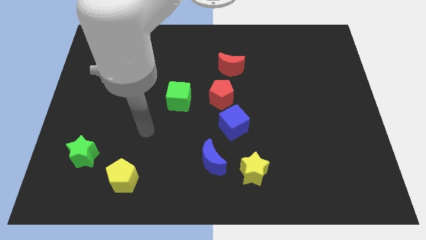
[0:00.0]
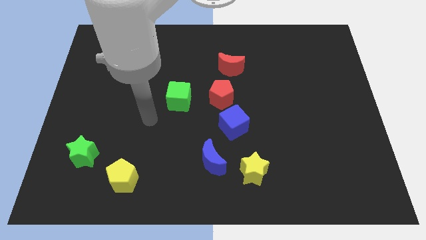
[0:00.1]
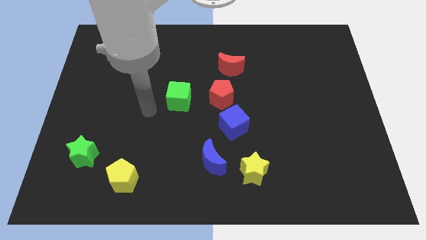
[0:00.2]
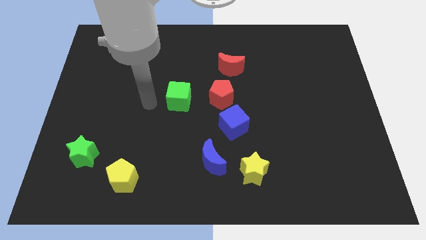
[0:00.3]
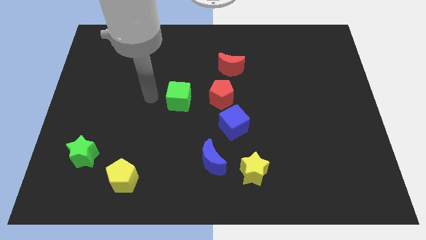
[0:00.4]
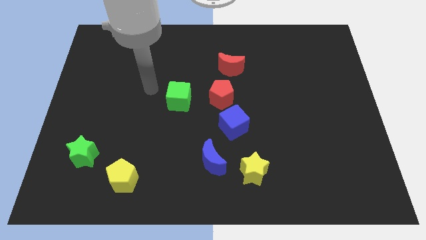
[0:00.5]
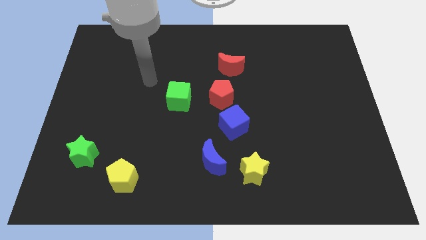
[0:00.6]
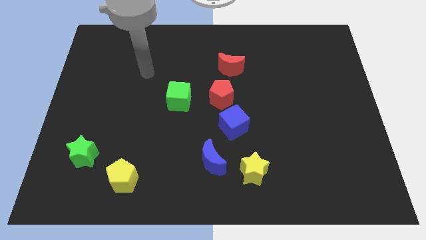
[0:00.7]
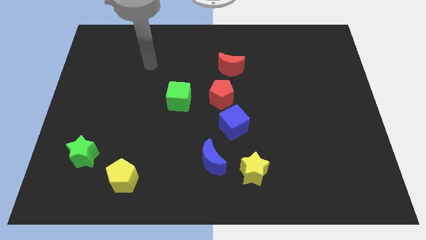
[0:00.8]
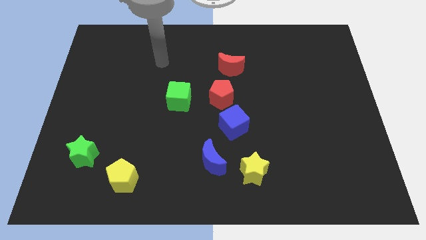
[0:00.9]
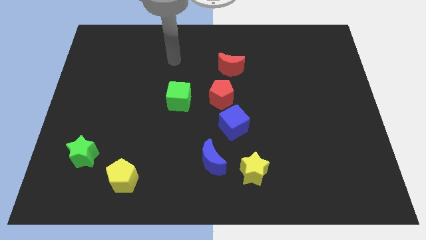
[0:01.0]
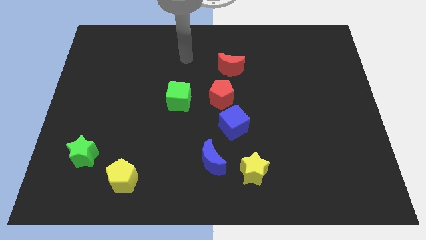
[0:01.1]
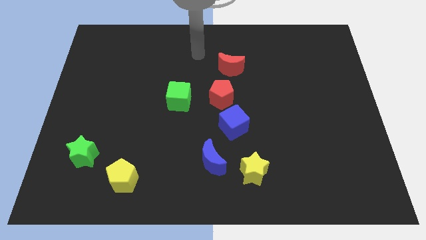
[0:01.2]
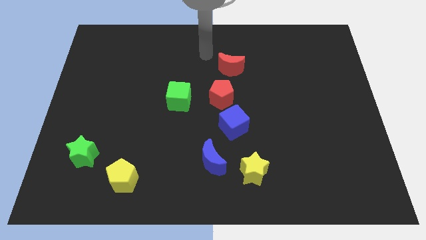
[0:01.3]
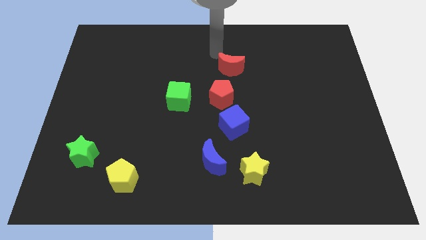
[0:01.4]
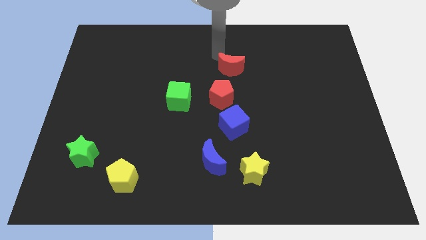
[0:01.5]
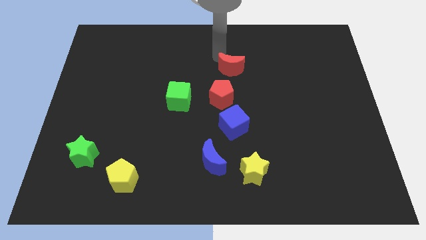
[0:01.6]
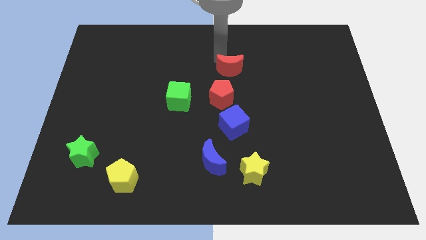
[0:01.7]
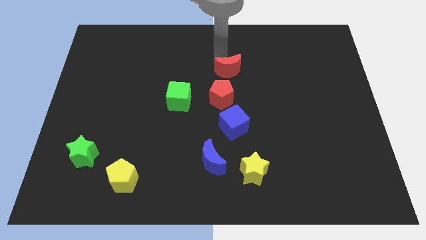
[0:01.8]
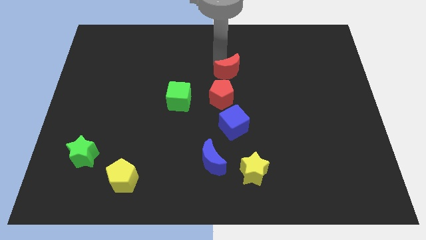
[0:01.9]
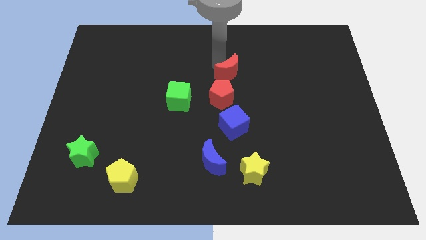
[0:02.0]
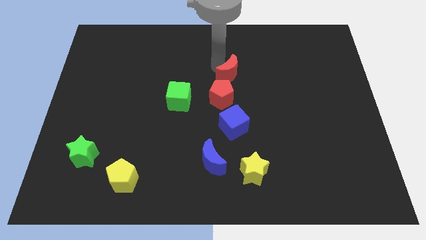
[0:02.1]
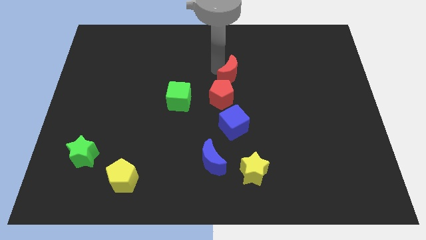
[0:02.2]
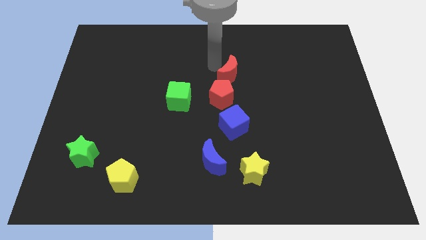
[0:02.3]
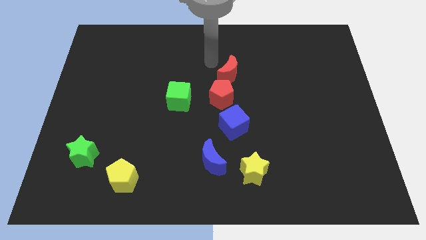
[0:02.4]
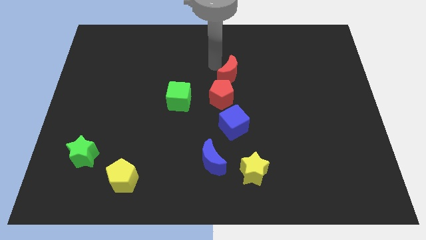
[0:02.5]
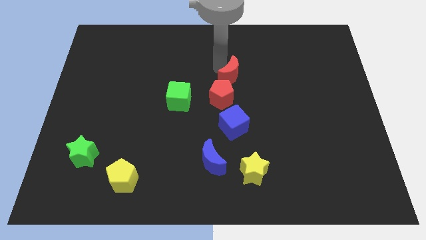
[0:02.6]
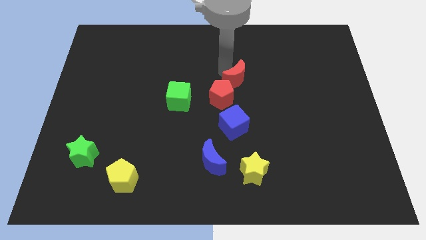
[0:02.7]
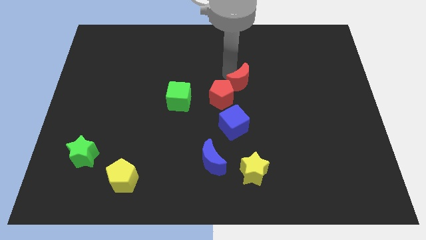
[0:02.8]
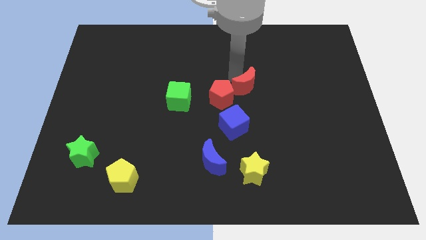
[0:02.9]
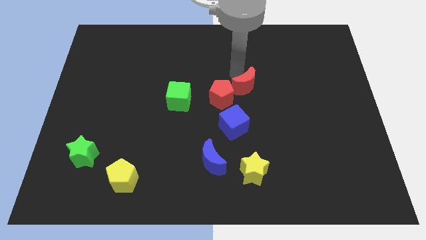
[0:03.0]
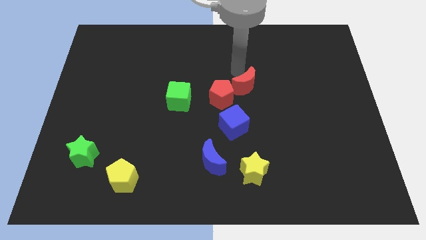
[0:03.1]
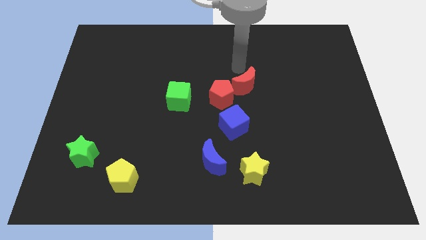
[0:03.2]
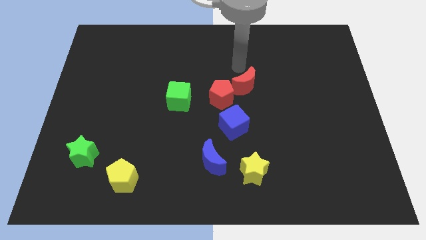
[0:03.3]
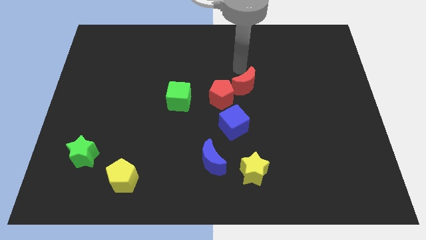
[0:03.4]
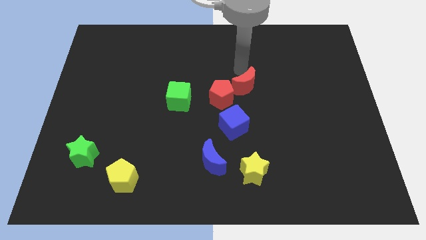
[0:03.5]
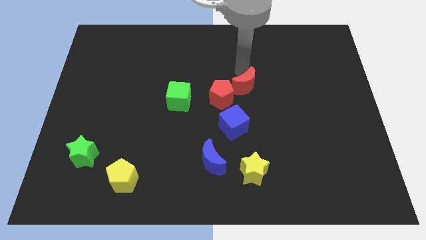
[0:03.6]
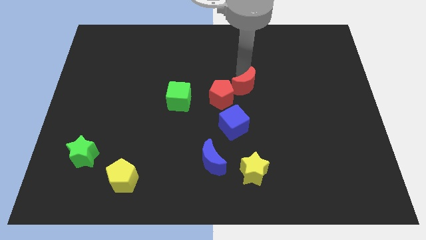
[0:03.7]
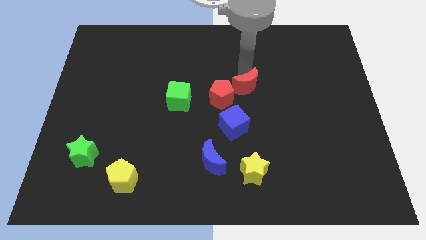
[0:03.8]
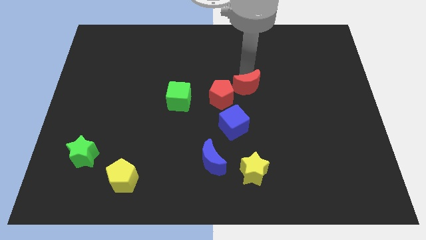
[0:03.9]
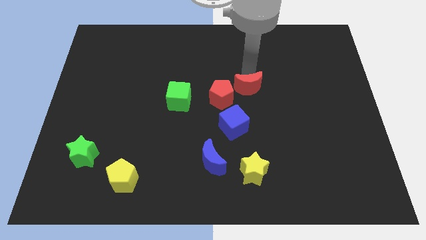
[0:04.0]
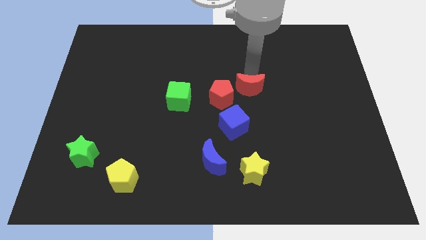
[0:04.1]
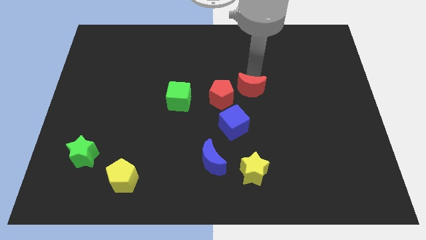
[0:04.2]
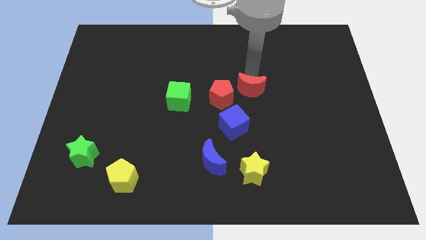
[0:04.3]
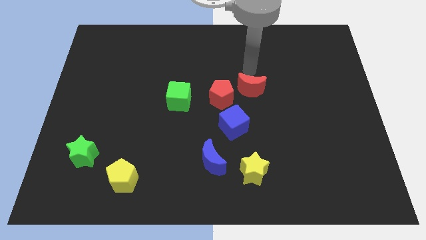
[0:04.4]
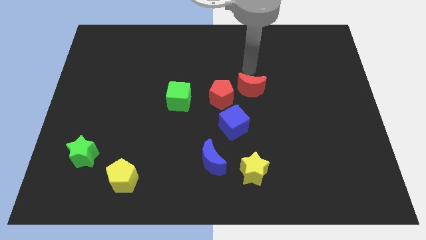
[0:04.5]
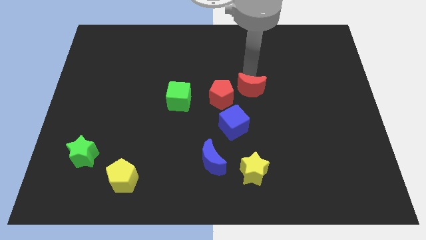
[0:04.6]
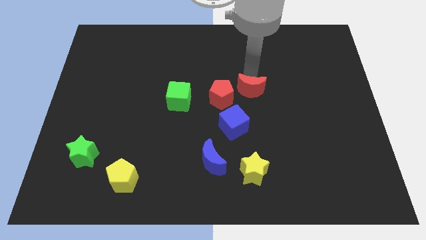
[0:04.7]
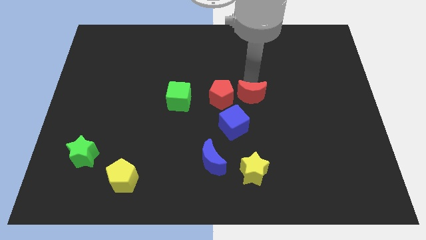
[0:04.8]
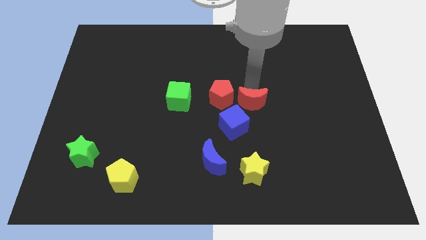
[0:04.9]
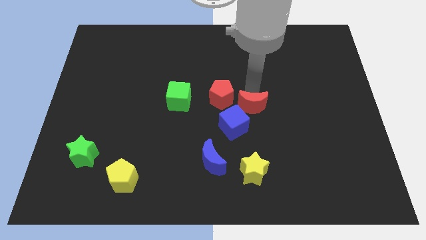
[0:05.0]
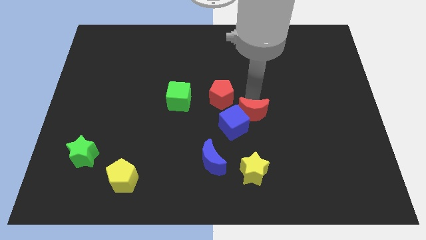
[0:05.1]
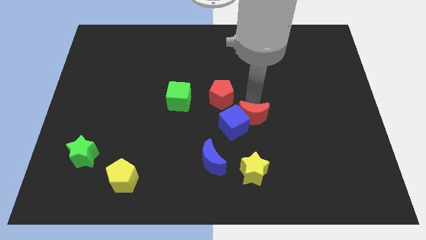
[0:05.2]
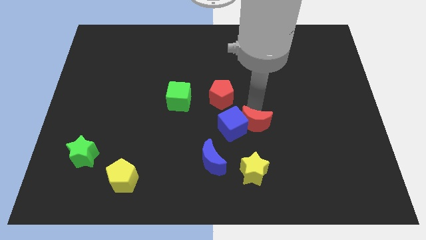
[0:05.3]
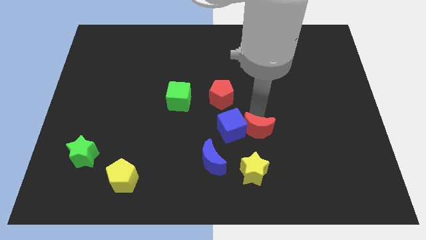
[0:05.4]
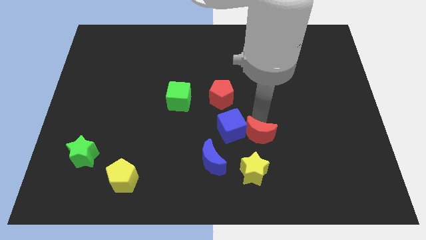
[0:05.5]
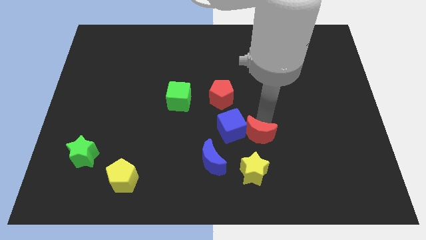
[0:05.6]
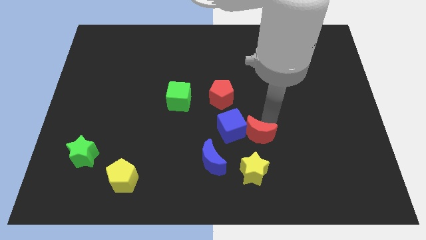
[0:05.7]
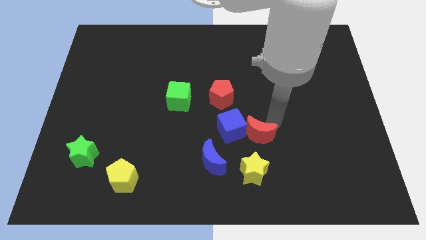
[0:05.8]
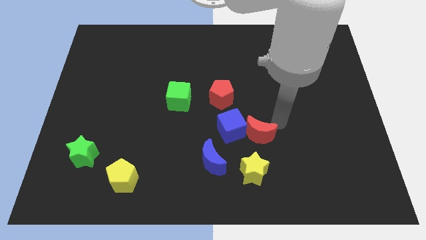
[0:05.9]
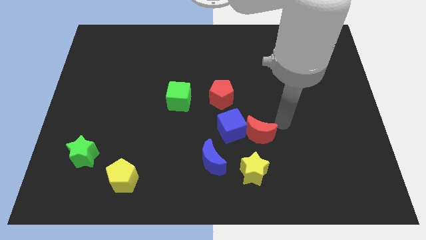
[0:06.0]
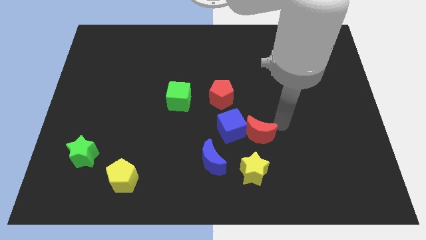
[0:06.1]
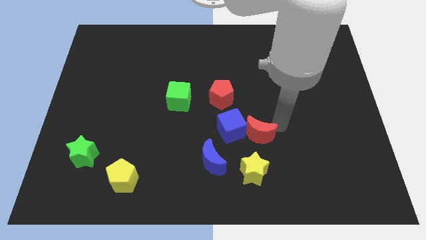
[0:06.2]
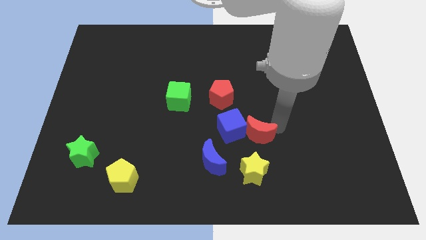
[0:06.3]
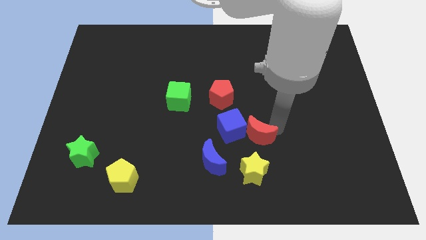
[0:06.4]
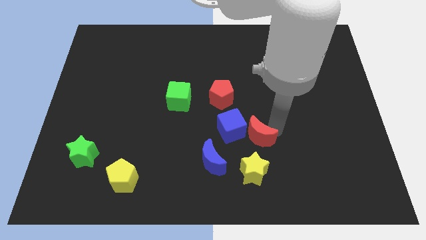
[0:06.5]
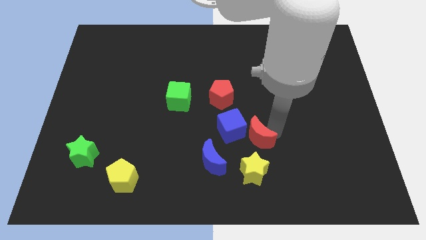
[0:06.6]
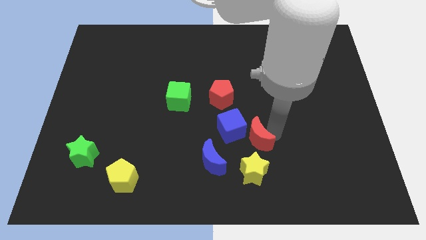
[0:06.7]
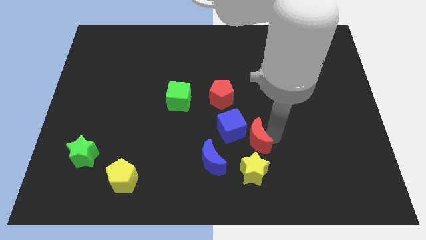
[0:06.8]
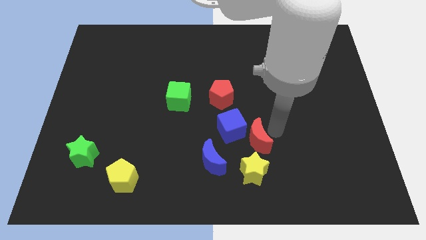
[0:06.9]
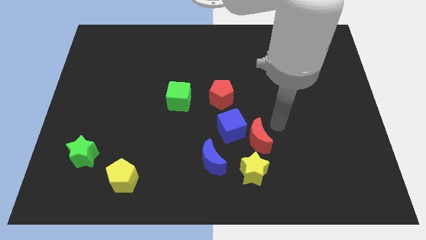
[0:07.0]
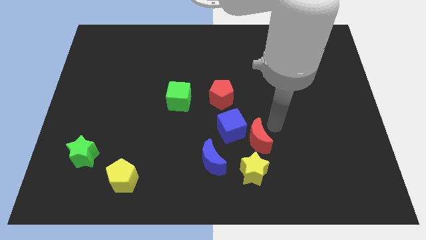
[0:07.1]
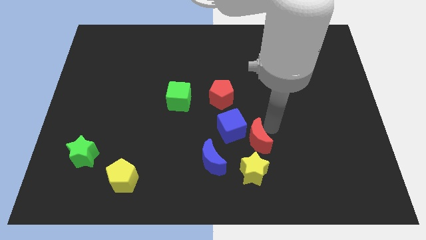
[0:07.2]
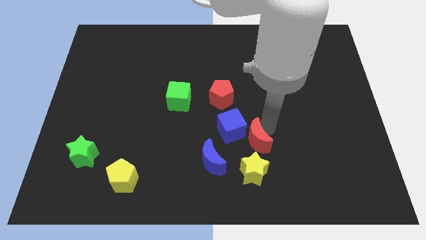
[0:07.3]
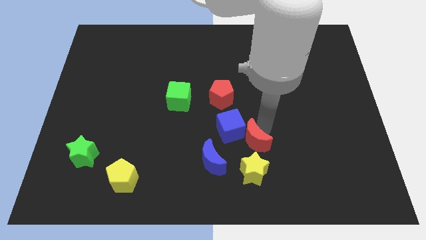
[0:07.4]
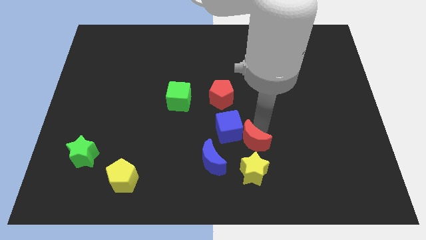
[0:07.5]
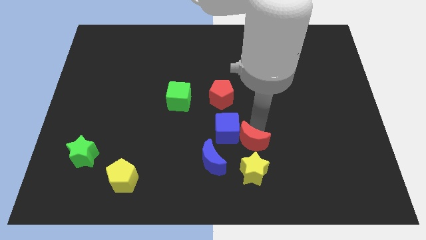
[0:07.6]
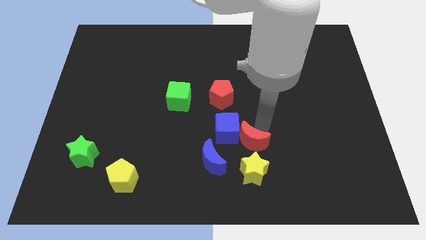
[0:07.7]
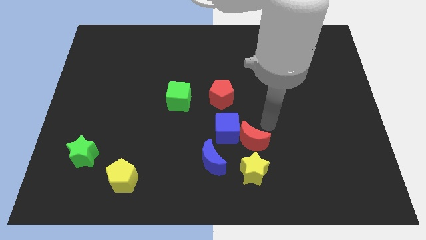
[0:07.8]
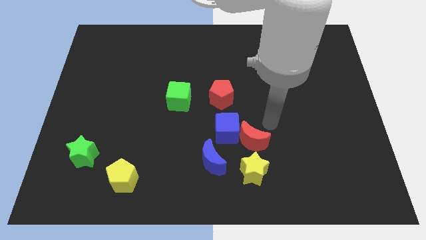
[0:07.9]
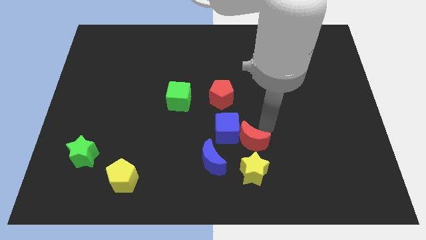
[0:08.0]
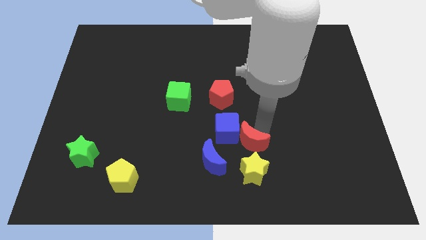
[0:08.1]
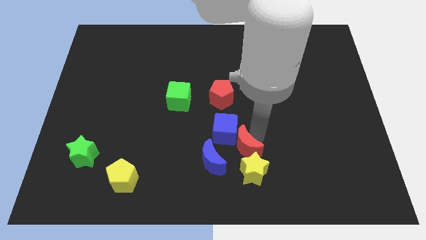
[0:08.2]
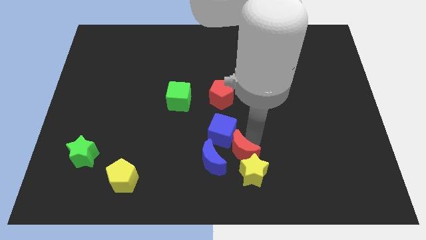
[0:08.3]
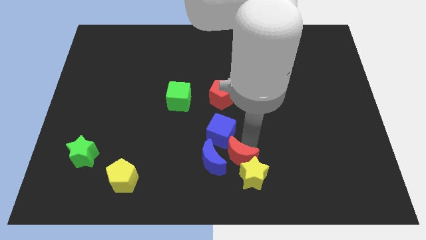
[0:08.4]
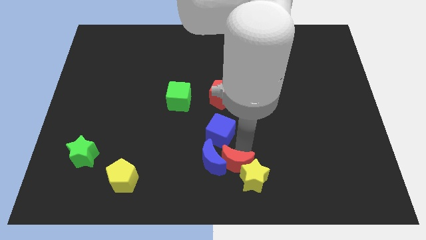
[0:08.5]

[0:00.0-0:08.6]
slide the red moon to the bottom side
